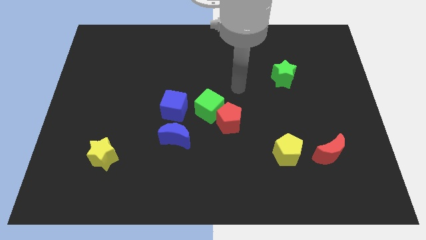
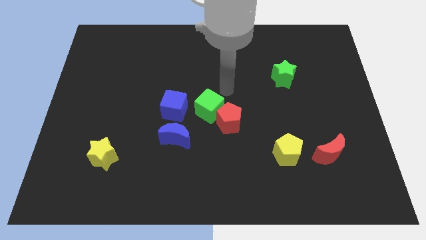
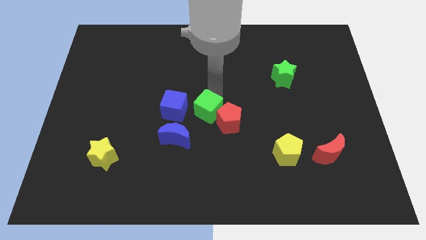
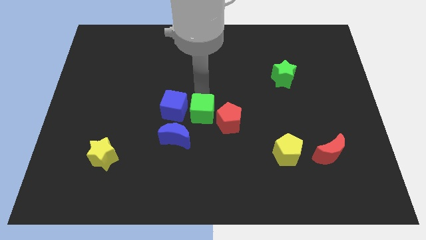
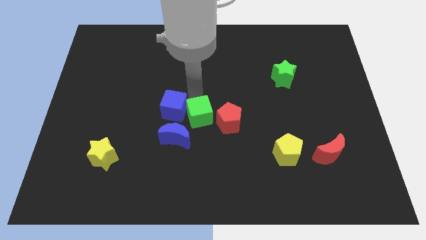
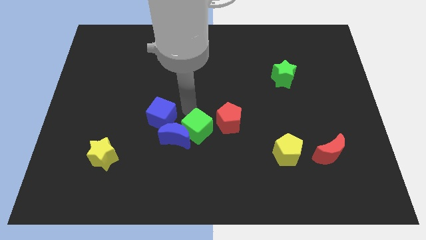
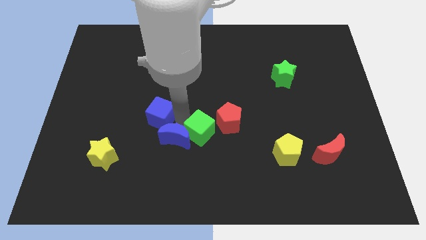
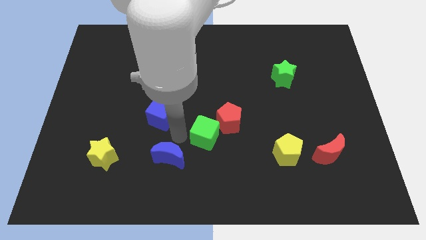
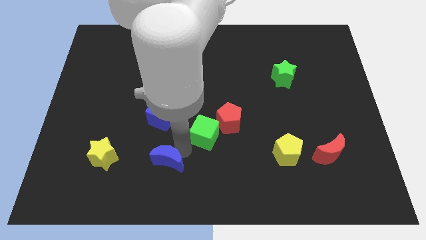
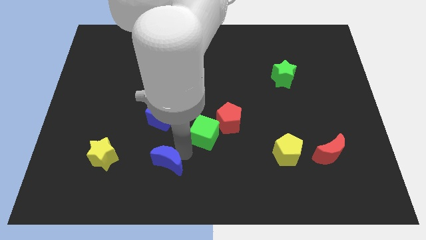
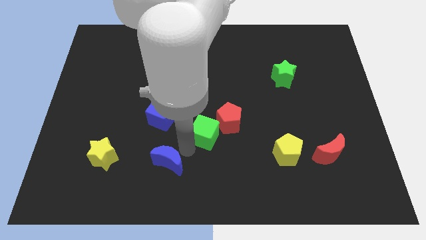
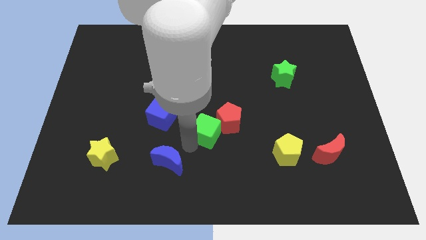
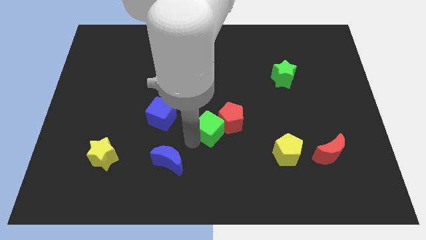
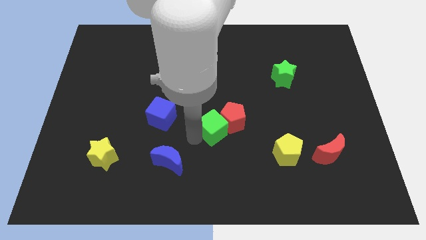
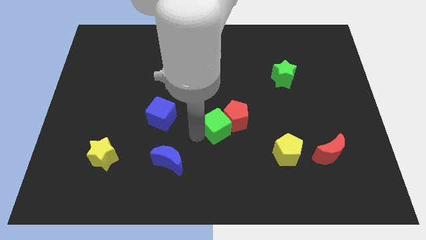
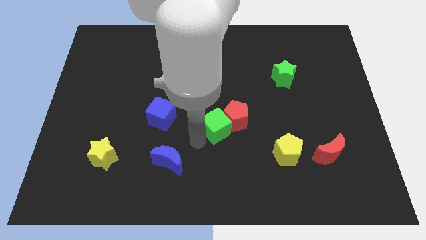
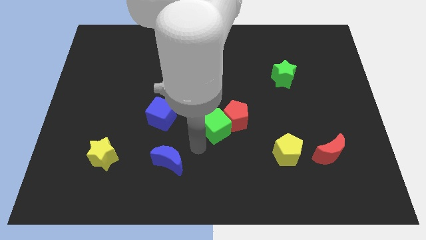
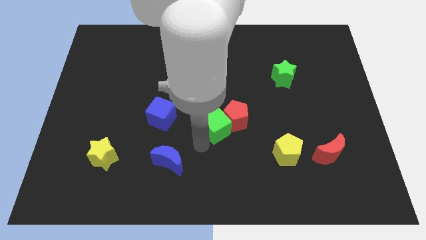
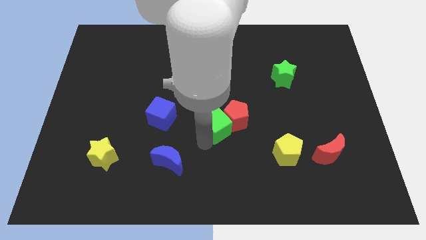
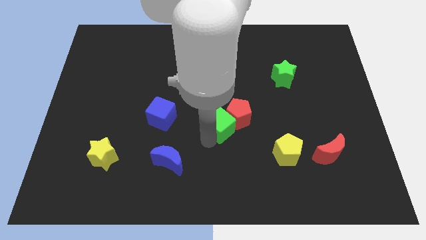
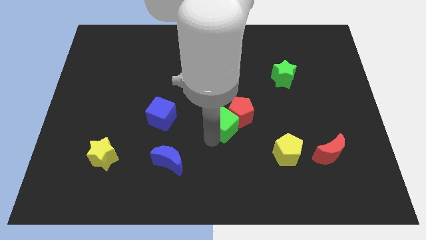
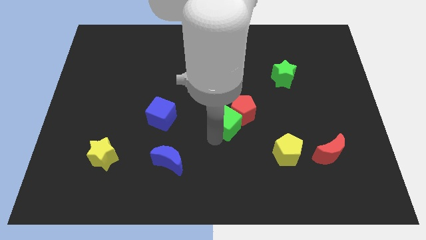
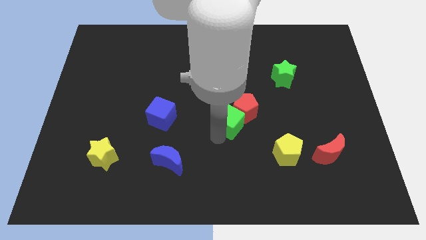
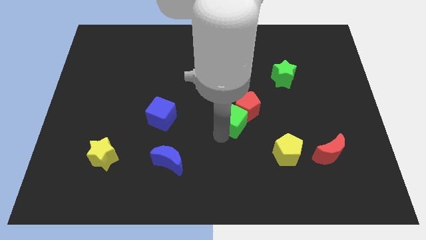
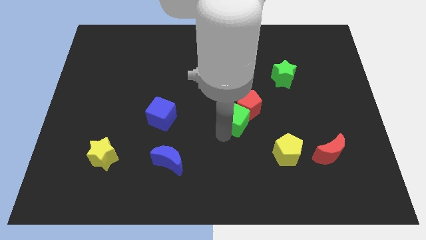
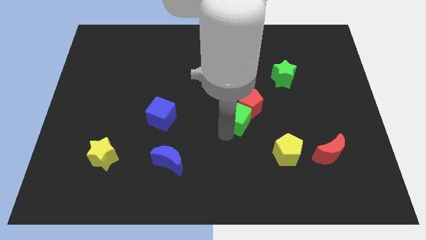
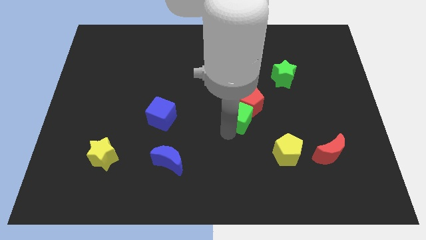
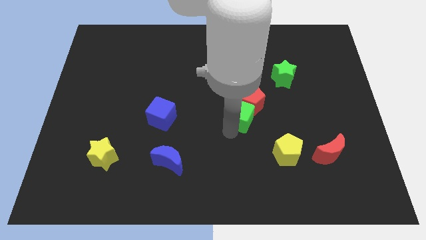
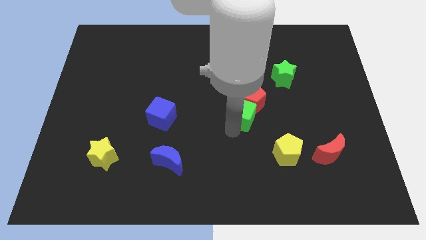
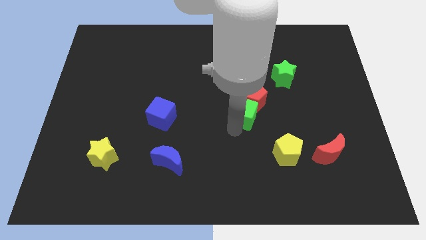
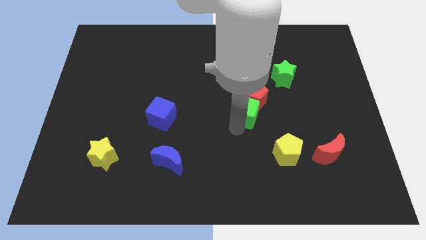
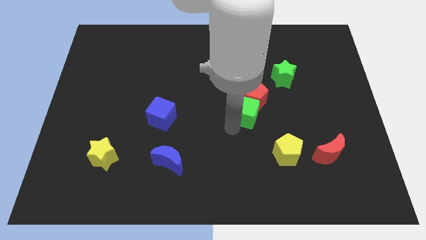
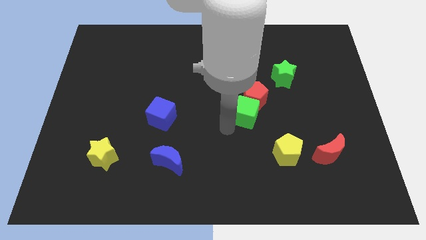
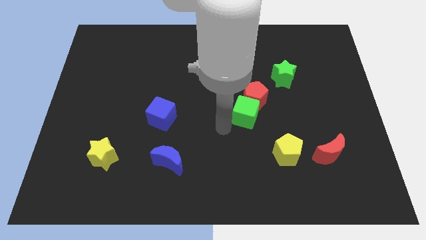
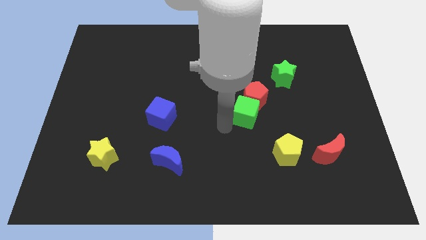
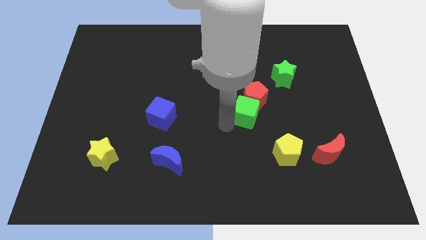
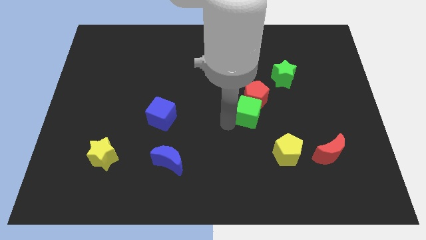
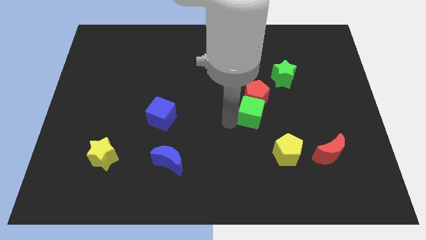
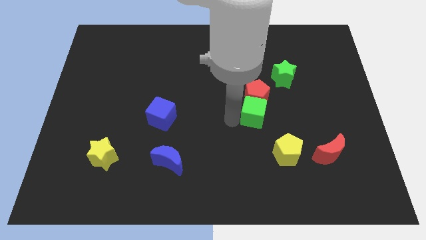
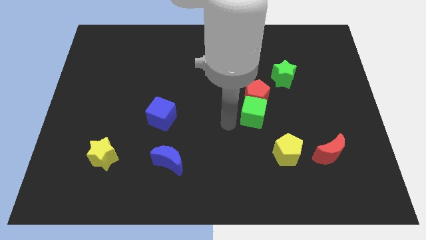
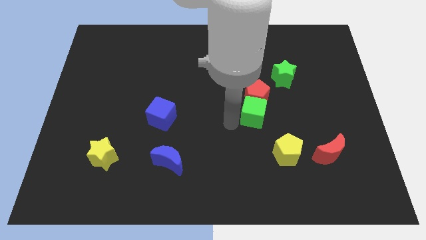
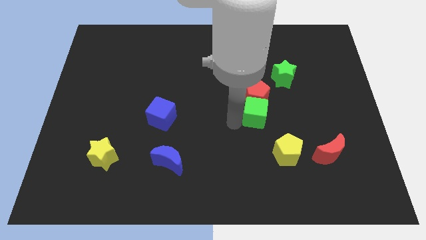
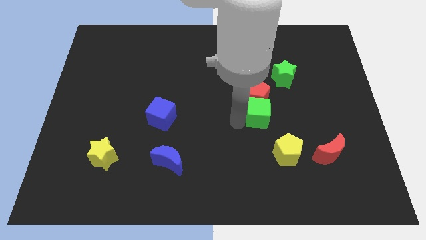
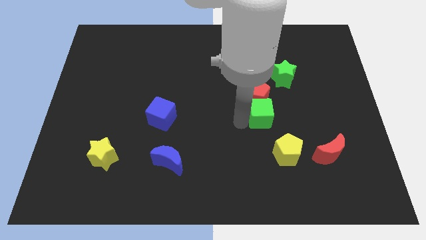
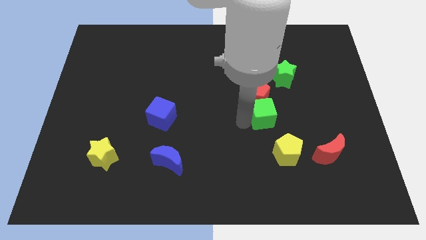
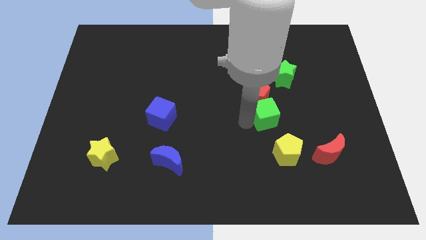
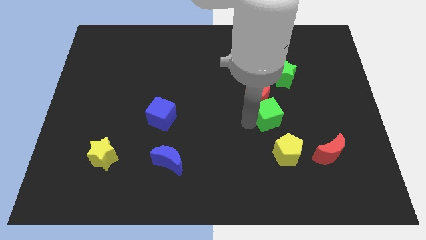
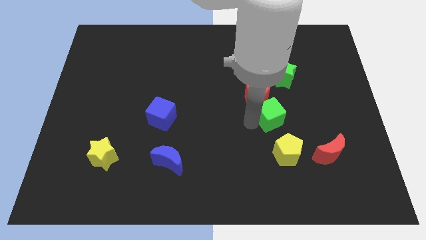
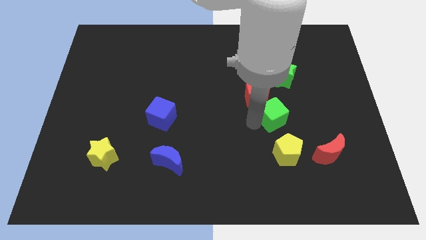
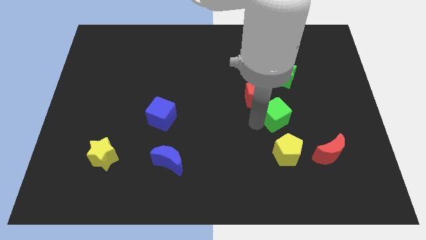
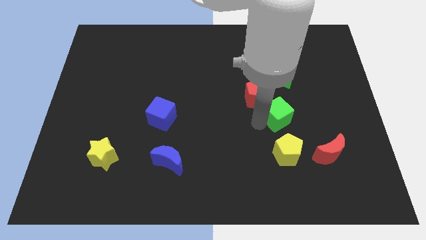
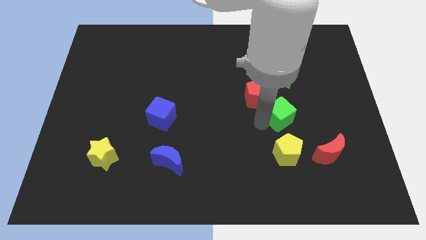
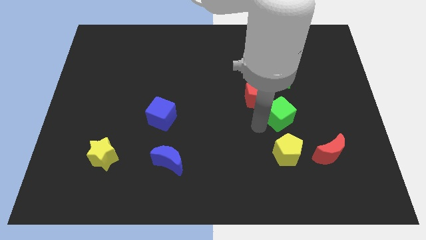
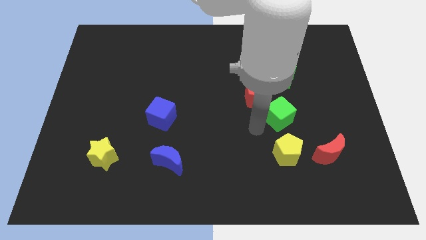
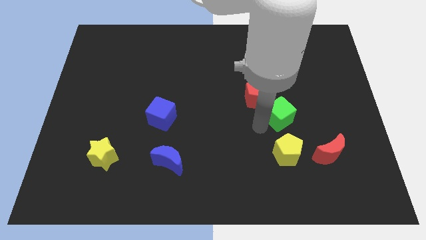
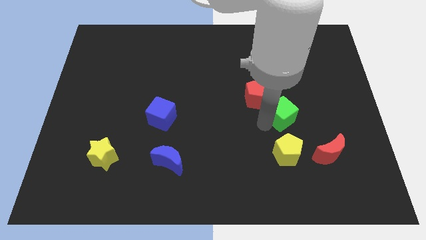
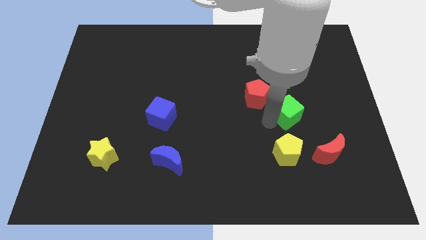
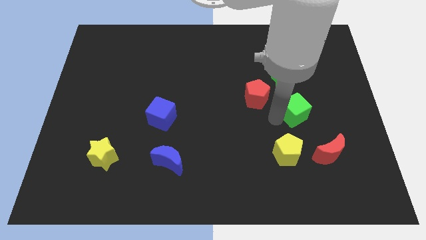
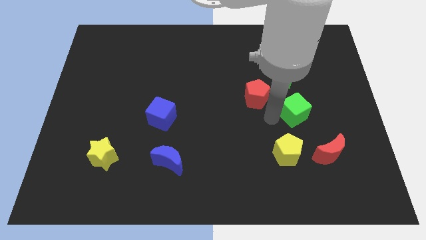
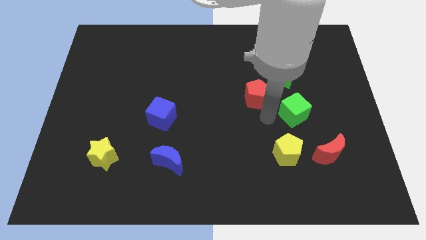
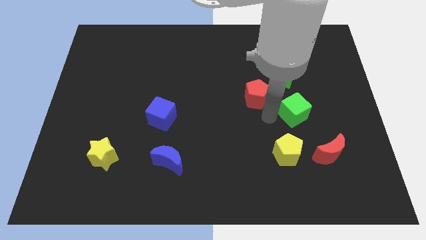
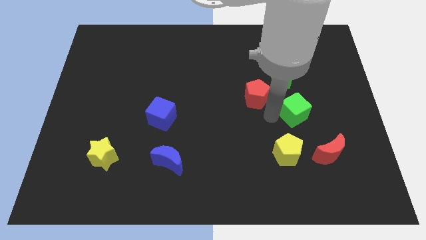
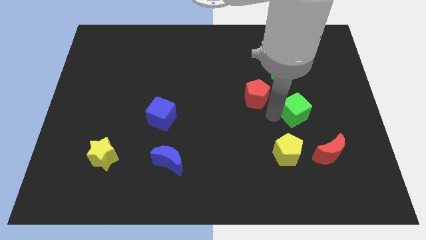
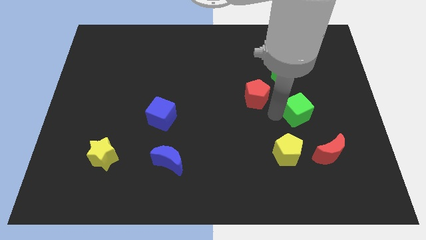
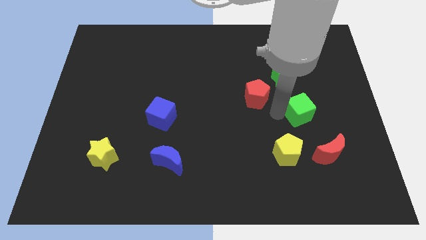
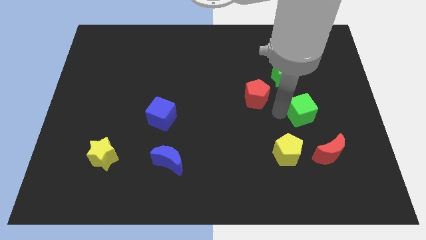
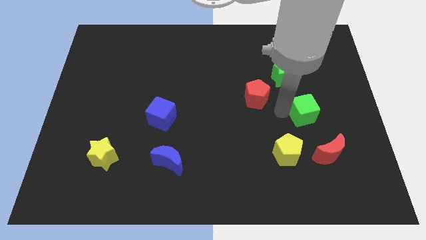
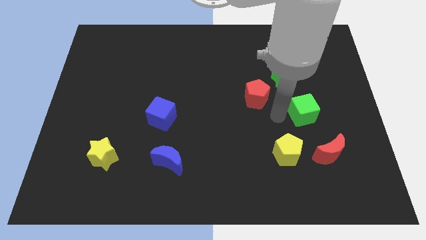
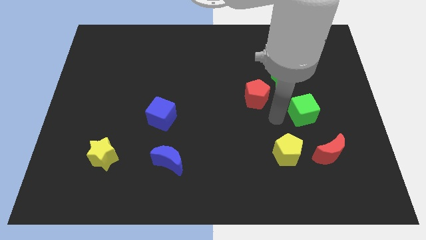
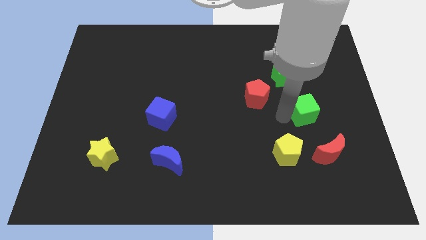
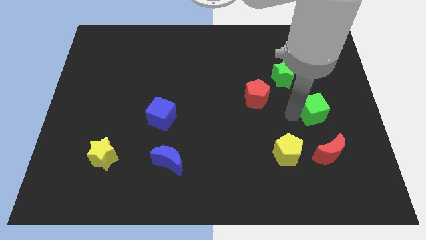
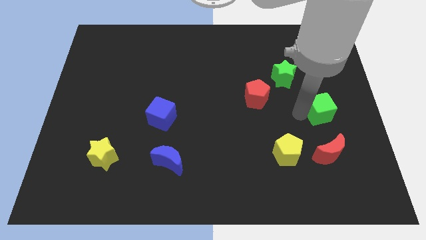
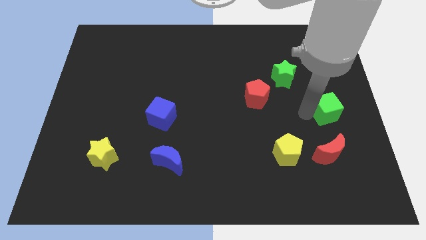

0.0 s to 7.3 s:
slide the green cube to the right side
